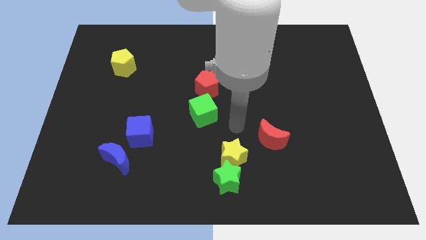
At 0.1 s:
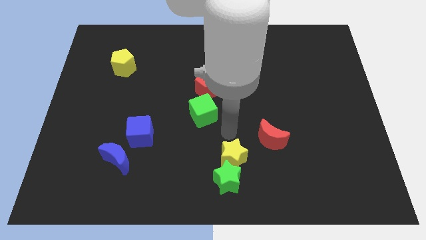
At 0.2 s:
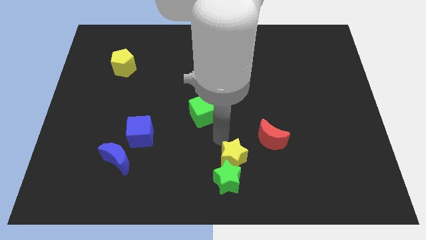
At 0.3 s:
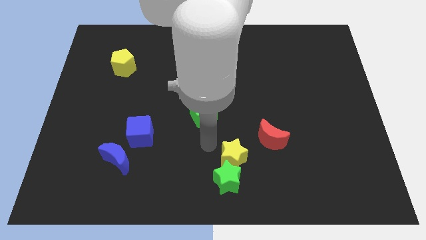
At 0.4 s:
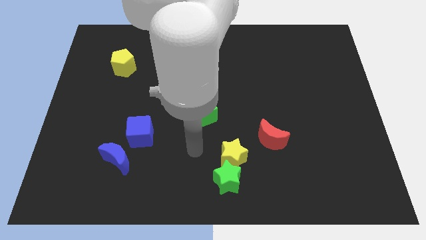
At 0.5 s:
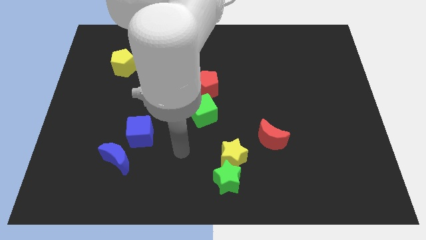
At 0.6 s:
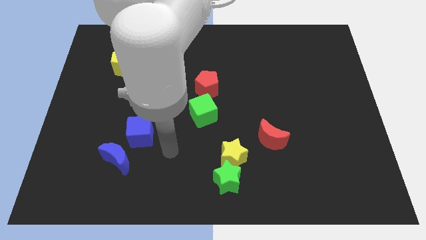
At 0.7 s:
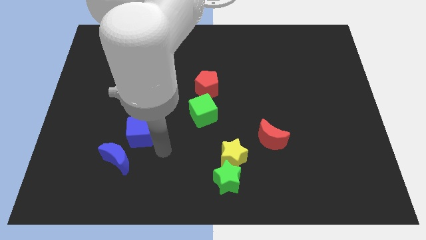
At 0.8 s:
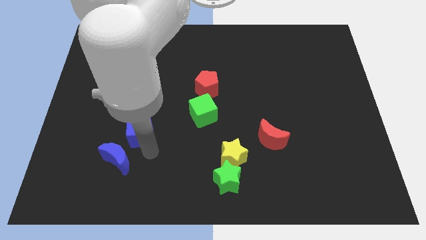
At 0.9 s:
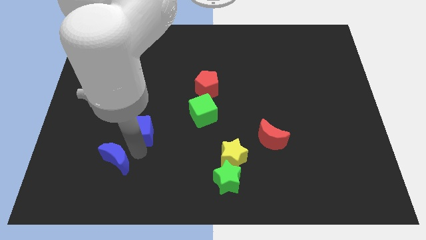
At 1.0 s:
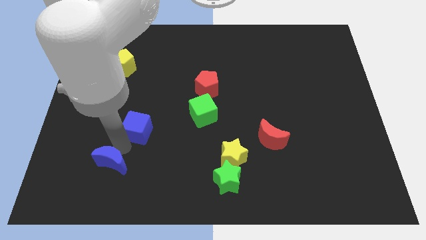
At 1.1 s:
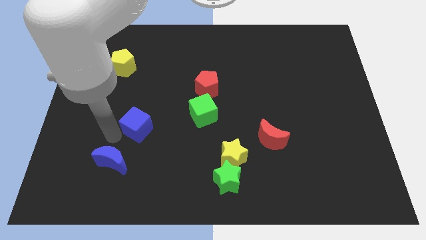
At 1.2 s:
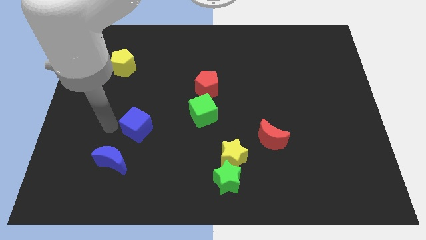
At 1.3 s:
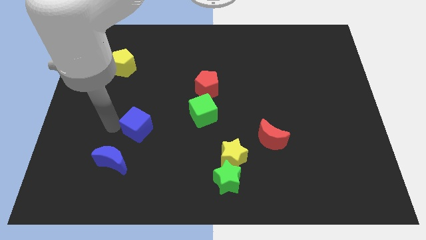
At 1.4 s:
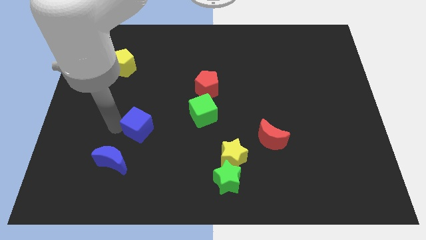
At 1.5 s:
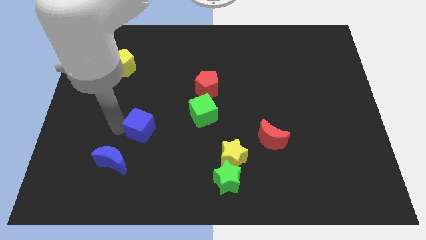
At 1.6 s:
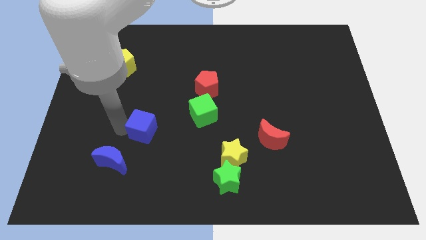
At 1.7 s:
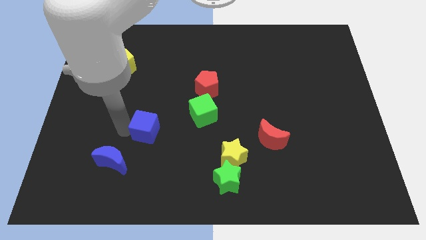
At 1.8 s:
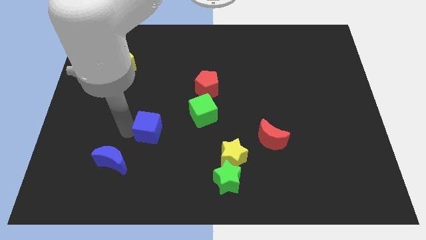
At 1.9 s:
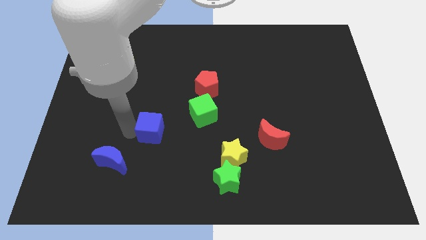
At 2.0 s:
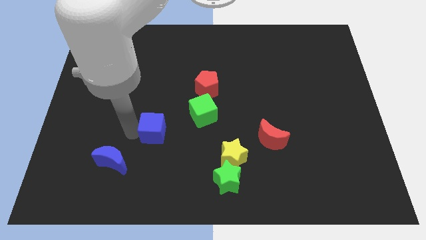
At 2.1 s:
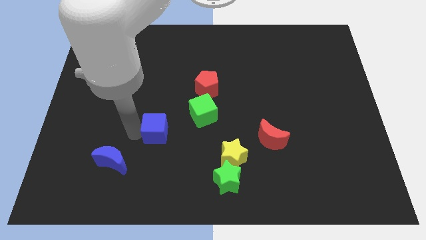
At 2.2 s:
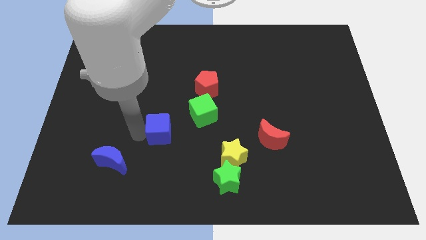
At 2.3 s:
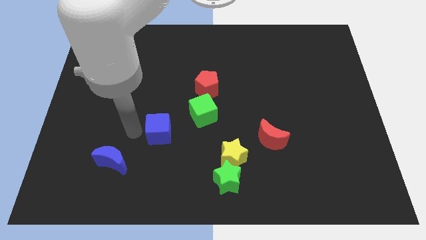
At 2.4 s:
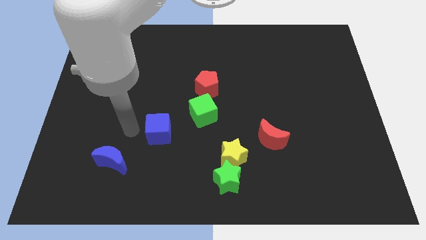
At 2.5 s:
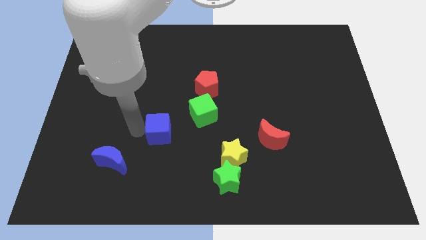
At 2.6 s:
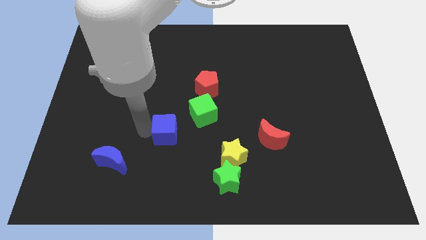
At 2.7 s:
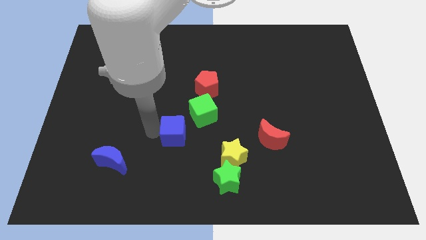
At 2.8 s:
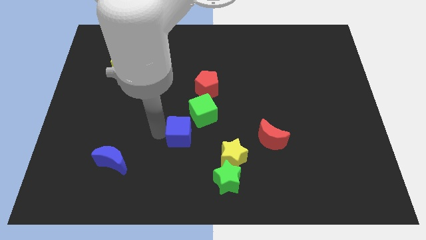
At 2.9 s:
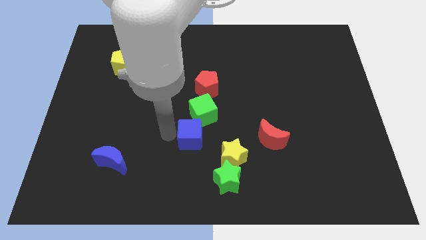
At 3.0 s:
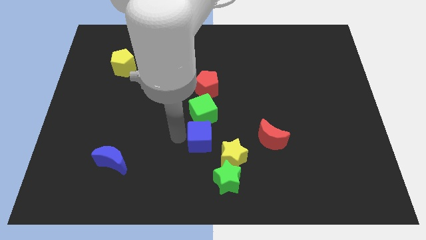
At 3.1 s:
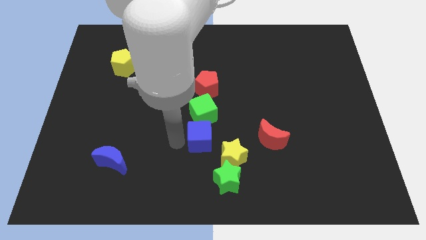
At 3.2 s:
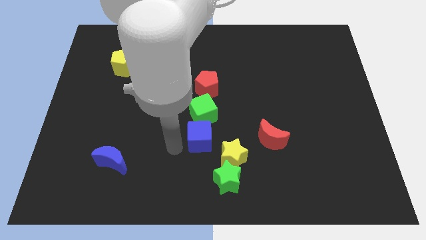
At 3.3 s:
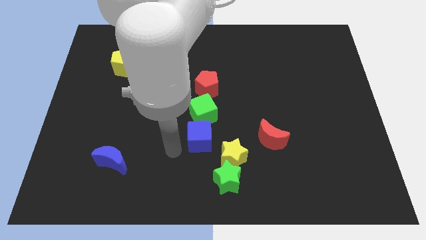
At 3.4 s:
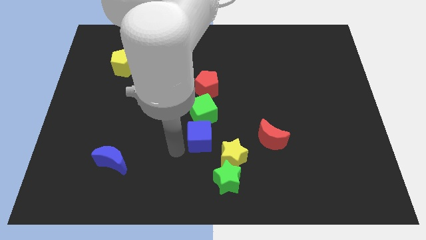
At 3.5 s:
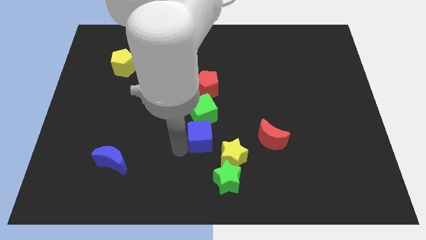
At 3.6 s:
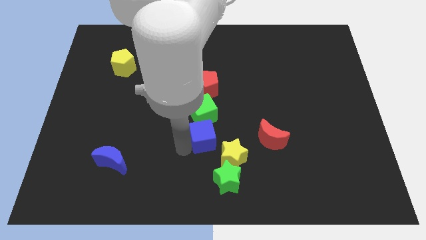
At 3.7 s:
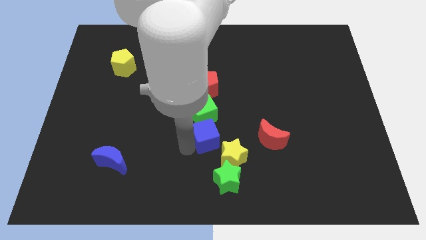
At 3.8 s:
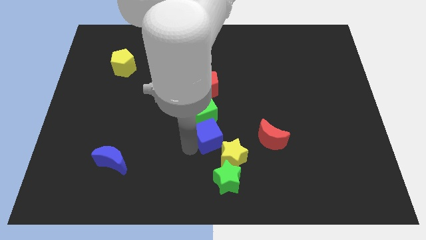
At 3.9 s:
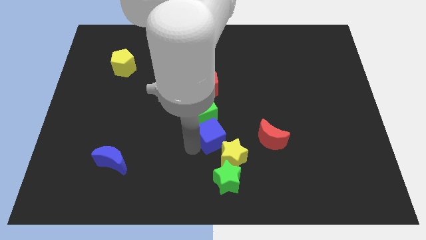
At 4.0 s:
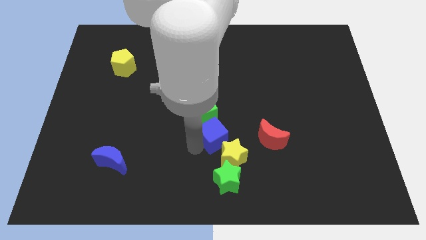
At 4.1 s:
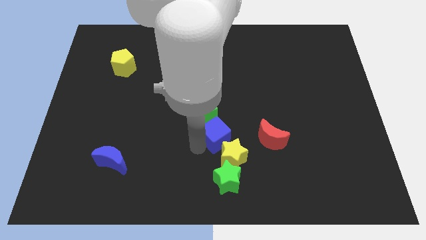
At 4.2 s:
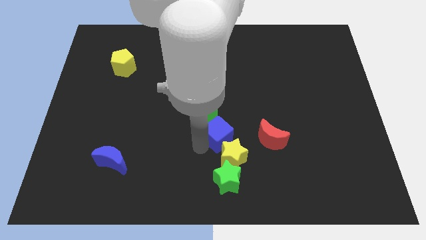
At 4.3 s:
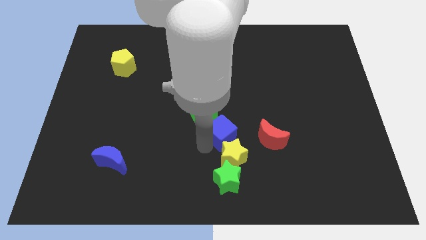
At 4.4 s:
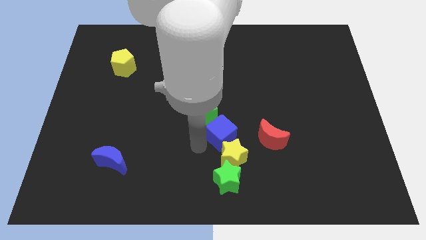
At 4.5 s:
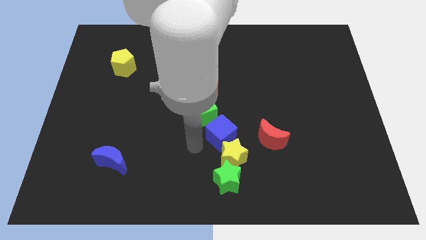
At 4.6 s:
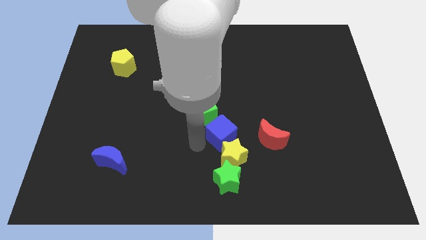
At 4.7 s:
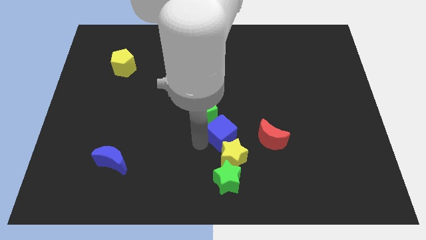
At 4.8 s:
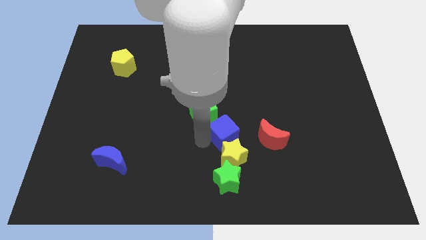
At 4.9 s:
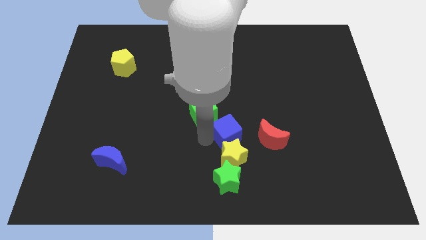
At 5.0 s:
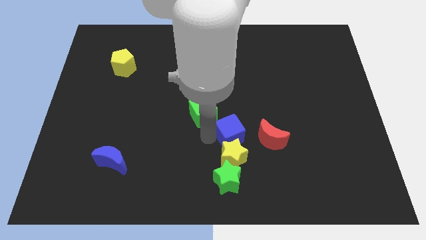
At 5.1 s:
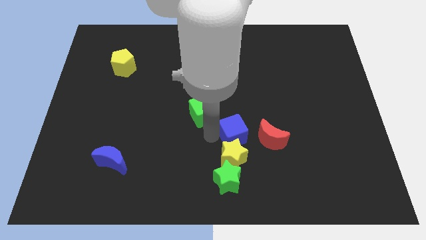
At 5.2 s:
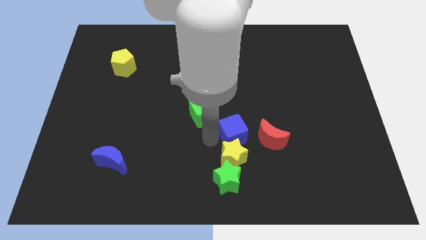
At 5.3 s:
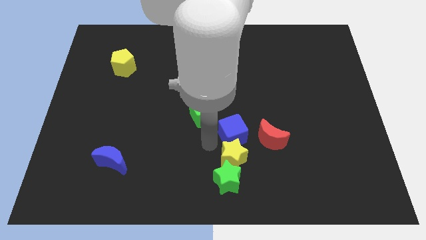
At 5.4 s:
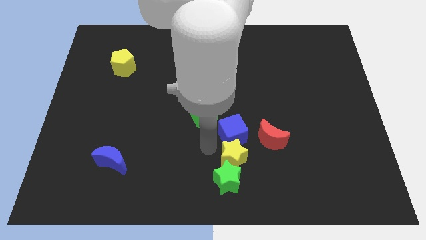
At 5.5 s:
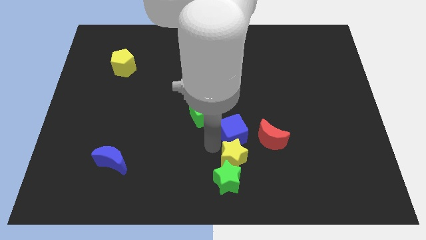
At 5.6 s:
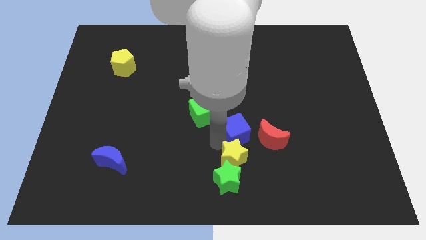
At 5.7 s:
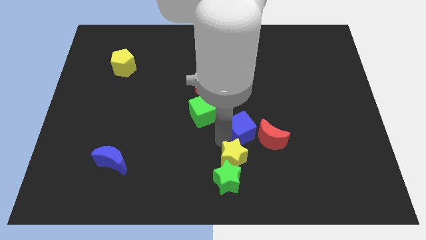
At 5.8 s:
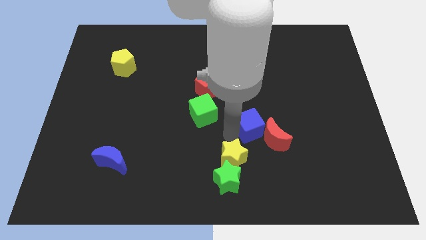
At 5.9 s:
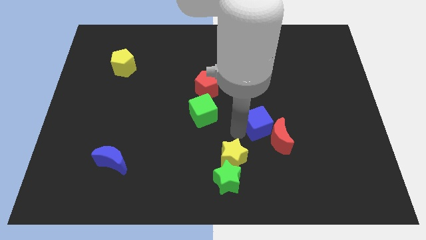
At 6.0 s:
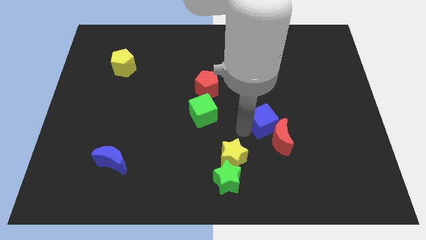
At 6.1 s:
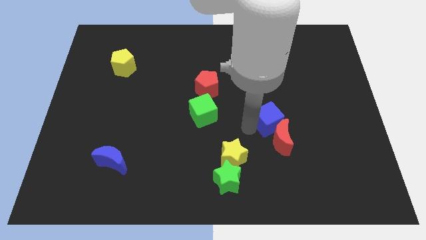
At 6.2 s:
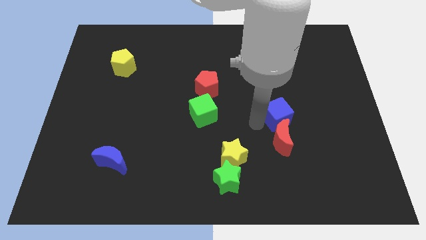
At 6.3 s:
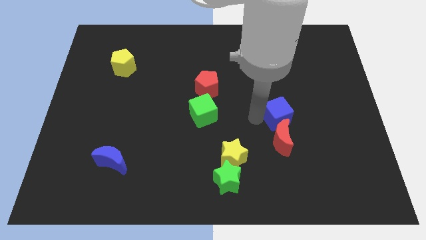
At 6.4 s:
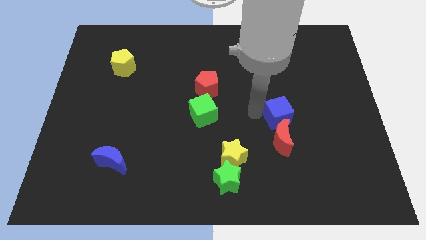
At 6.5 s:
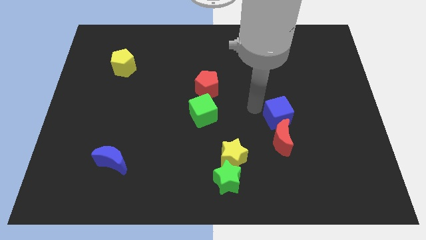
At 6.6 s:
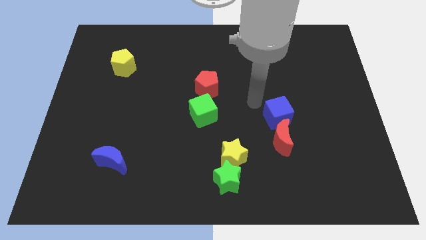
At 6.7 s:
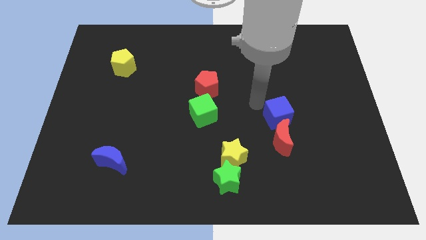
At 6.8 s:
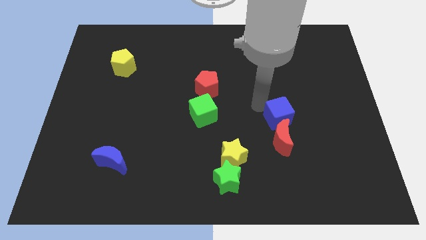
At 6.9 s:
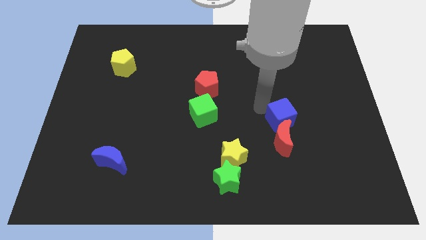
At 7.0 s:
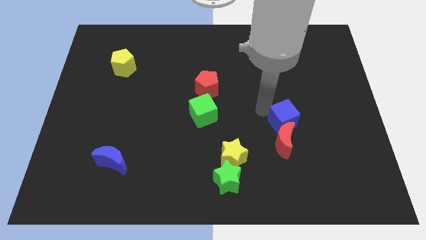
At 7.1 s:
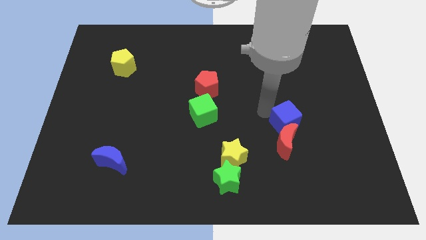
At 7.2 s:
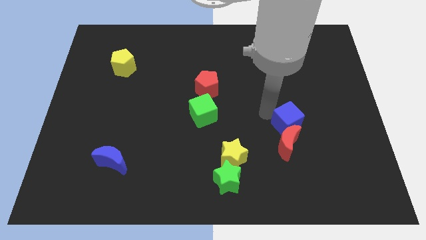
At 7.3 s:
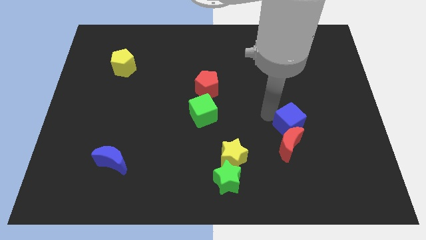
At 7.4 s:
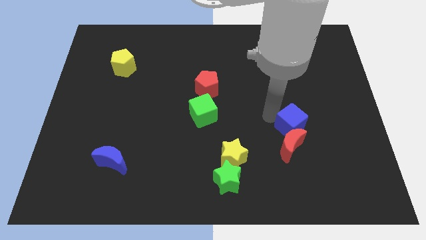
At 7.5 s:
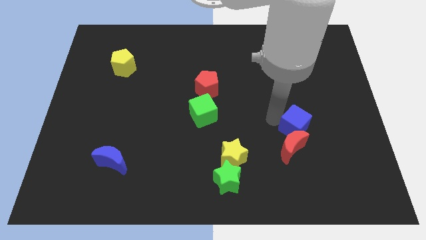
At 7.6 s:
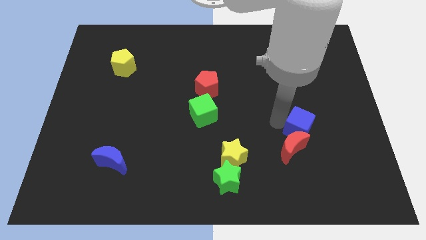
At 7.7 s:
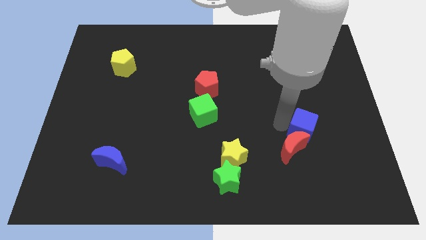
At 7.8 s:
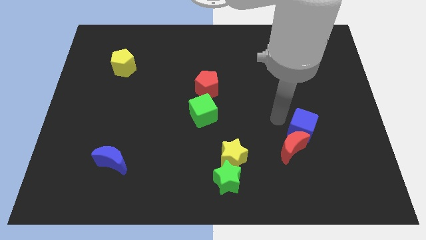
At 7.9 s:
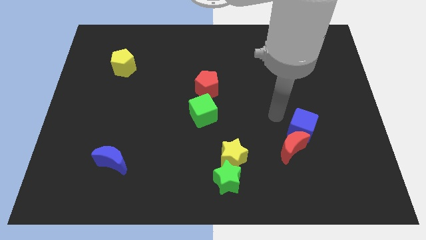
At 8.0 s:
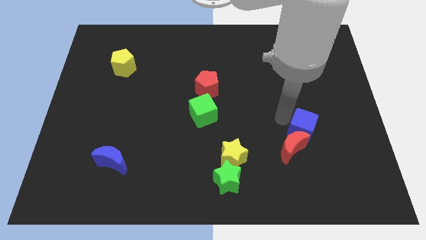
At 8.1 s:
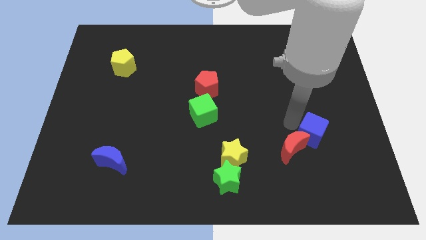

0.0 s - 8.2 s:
push the blue cube just right of the red moon
